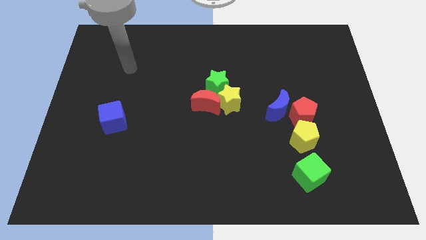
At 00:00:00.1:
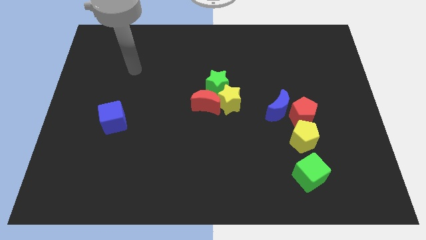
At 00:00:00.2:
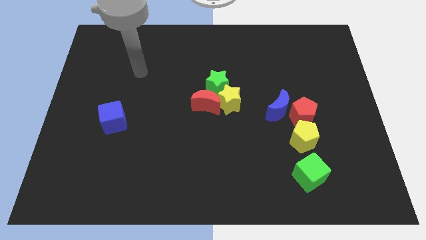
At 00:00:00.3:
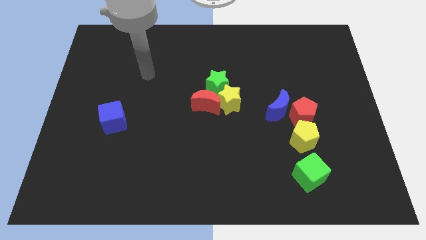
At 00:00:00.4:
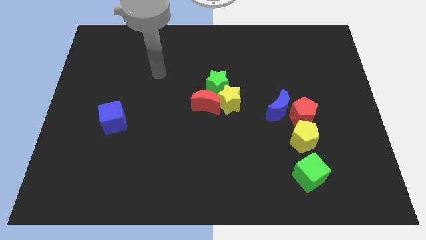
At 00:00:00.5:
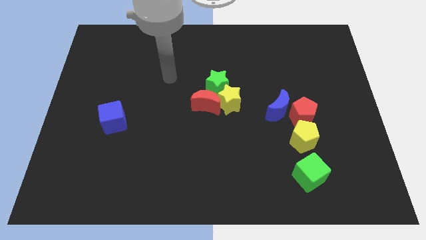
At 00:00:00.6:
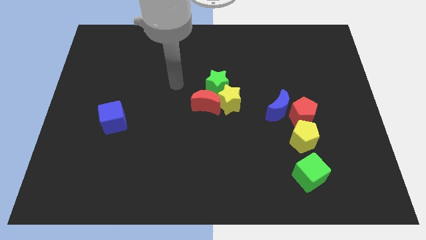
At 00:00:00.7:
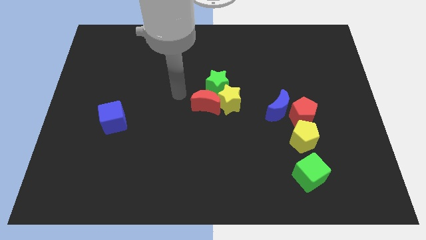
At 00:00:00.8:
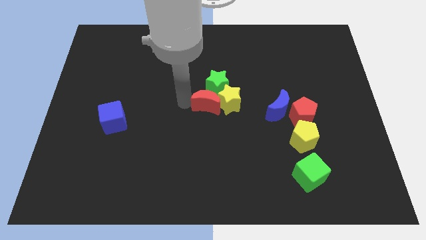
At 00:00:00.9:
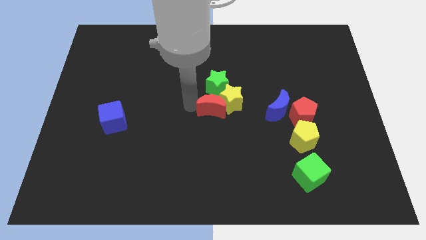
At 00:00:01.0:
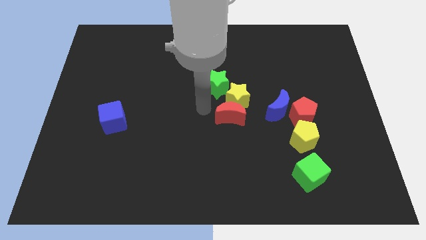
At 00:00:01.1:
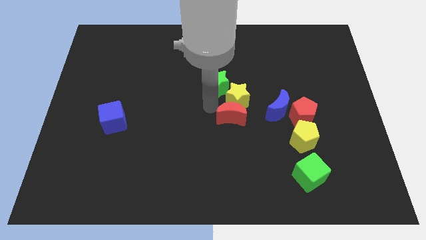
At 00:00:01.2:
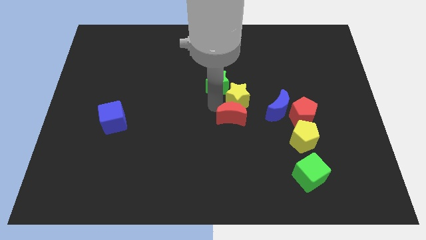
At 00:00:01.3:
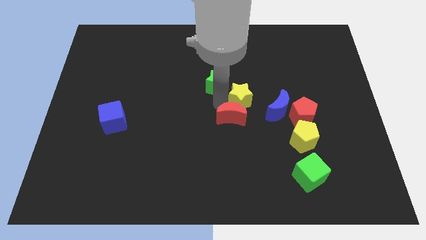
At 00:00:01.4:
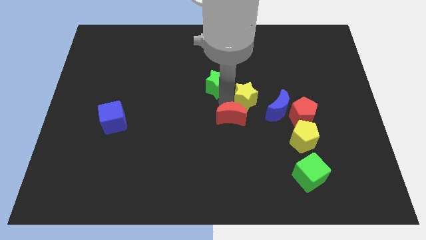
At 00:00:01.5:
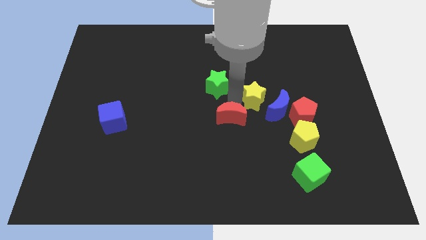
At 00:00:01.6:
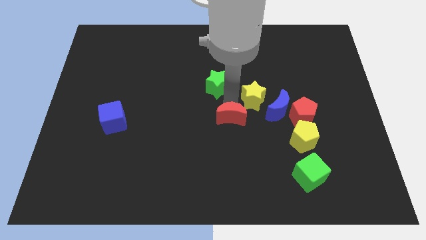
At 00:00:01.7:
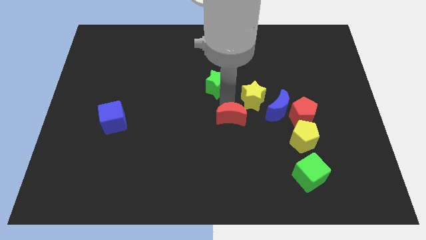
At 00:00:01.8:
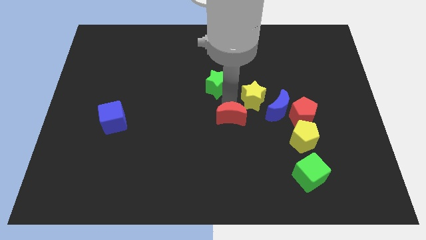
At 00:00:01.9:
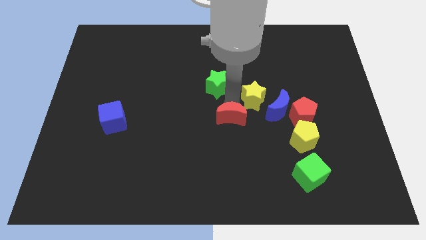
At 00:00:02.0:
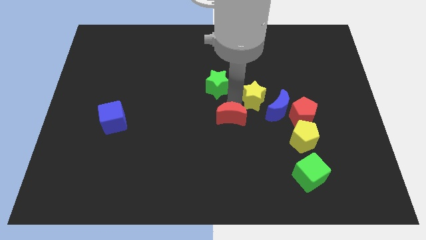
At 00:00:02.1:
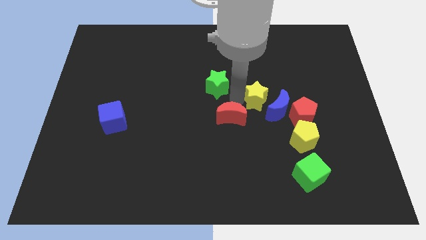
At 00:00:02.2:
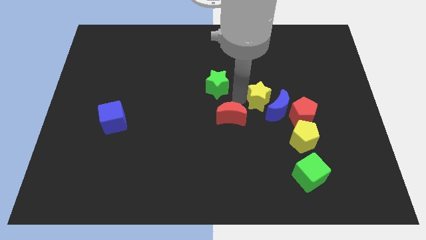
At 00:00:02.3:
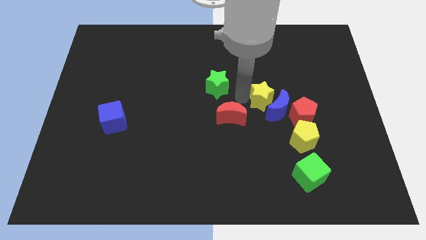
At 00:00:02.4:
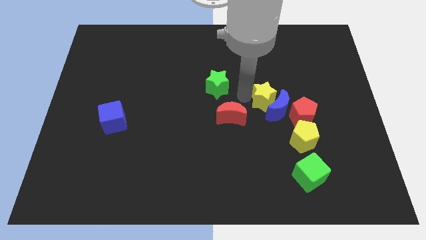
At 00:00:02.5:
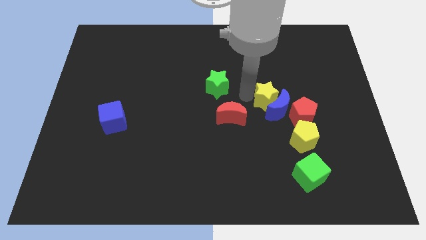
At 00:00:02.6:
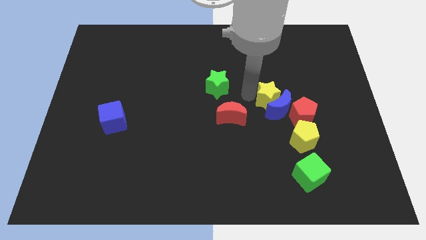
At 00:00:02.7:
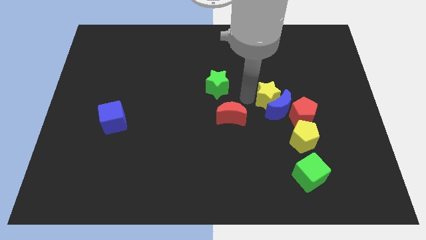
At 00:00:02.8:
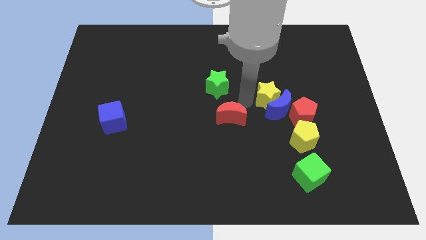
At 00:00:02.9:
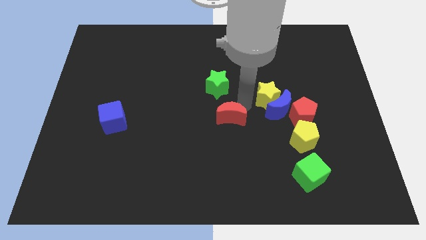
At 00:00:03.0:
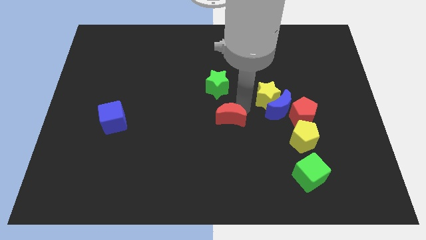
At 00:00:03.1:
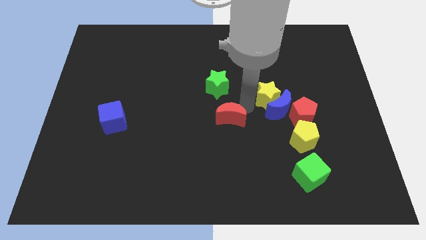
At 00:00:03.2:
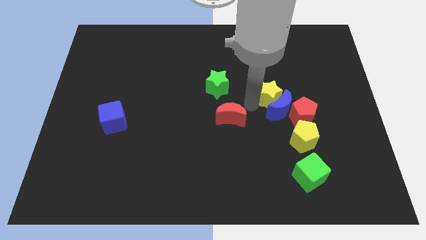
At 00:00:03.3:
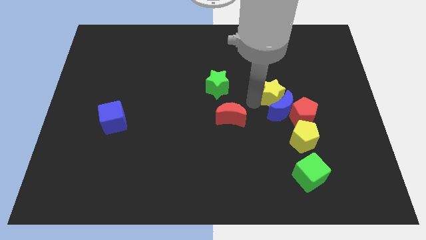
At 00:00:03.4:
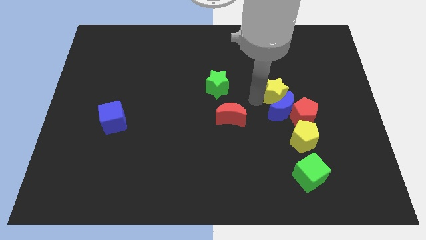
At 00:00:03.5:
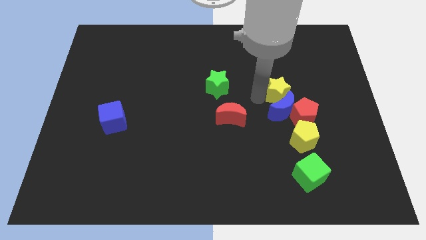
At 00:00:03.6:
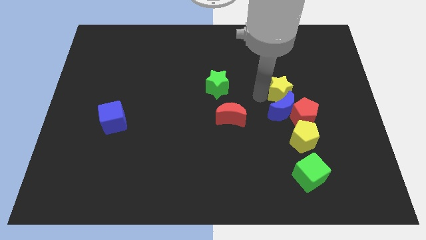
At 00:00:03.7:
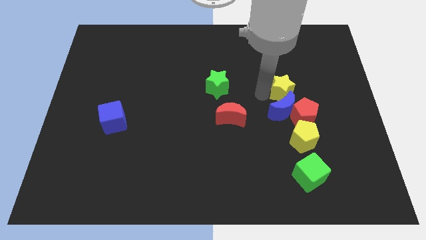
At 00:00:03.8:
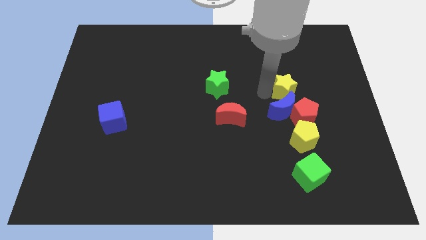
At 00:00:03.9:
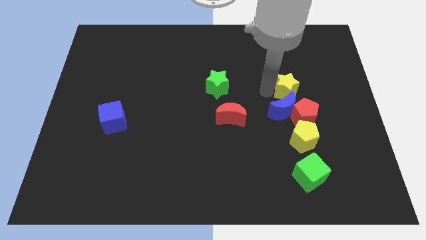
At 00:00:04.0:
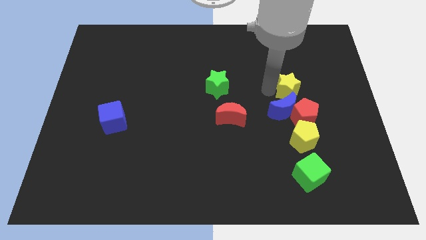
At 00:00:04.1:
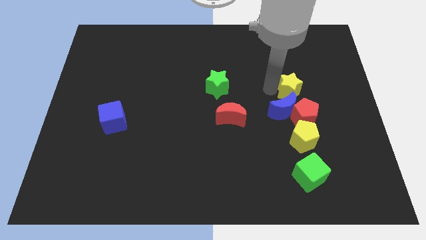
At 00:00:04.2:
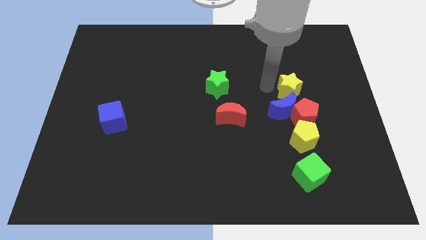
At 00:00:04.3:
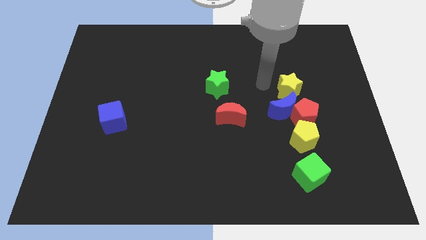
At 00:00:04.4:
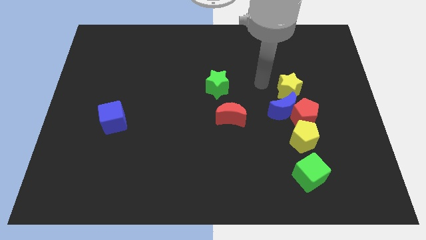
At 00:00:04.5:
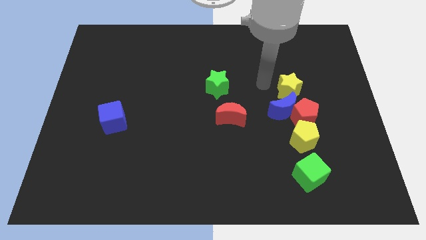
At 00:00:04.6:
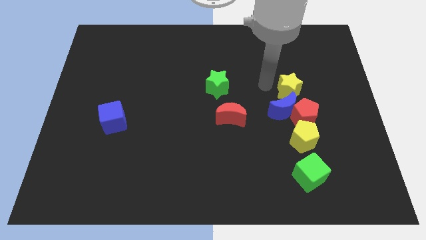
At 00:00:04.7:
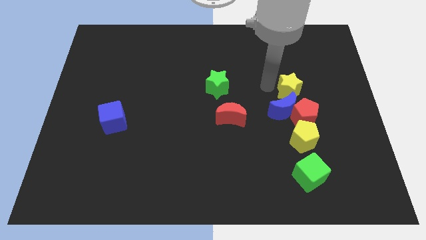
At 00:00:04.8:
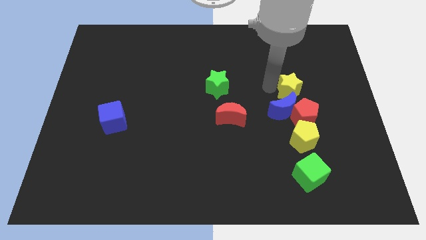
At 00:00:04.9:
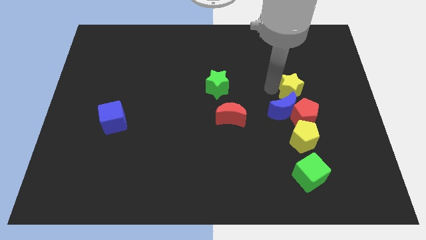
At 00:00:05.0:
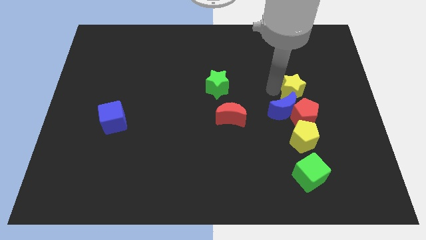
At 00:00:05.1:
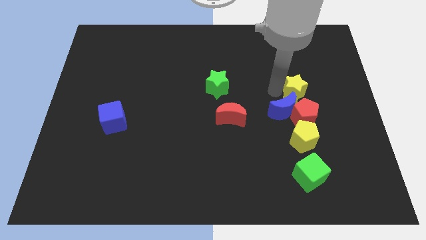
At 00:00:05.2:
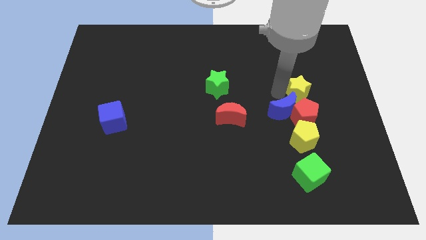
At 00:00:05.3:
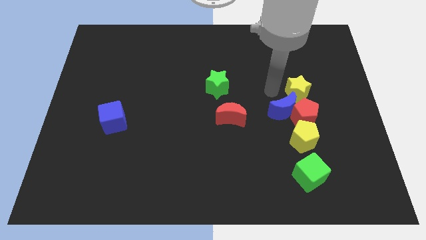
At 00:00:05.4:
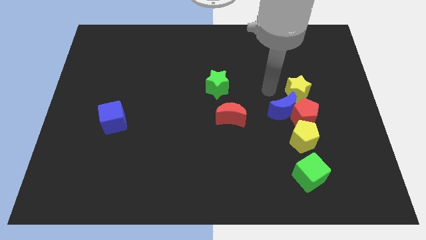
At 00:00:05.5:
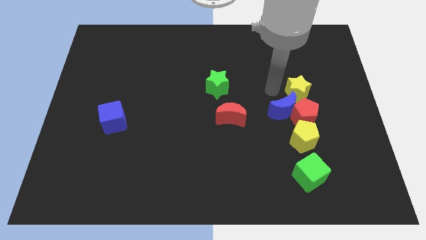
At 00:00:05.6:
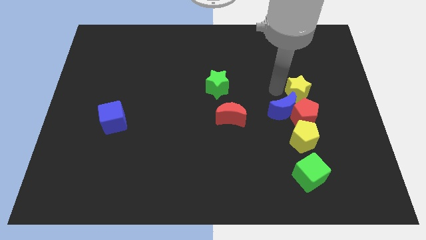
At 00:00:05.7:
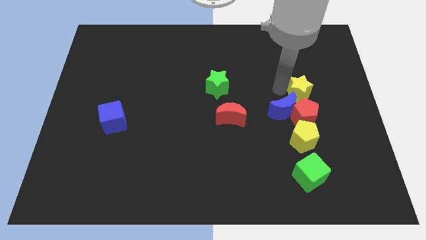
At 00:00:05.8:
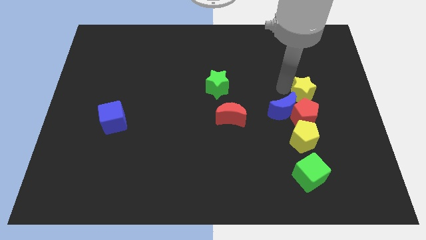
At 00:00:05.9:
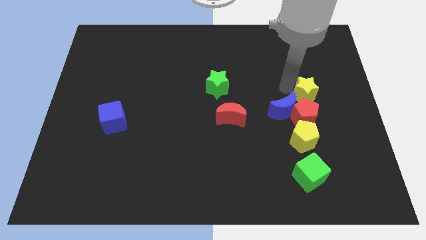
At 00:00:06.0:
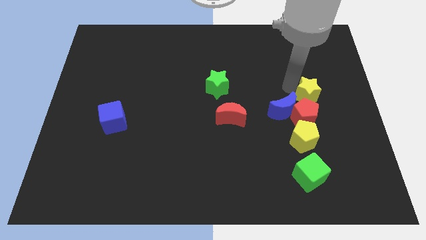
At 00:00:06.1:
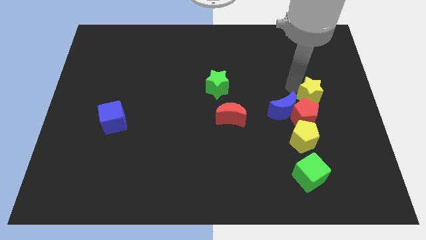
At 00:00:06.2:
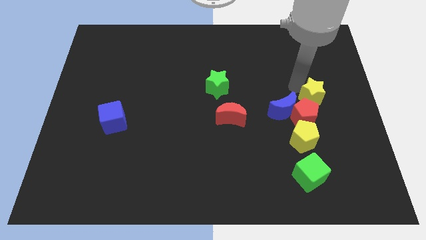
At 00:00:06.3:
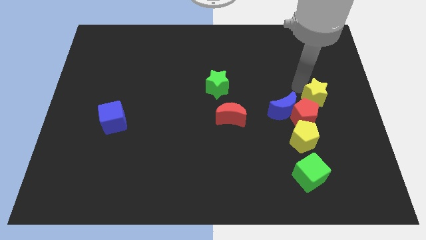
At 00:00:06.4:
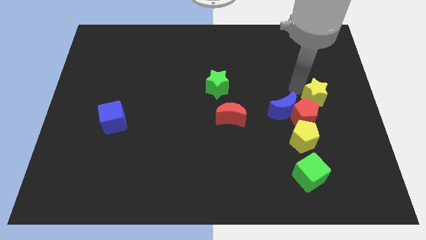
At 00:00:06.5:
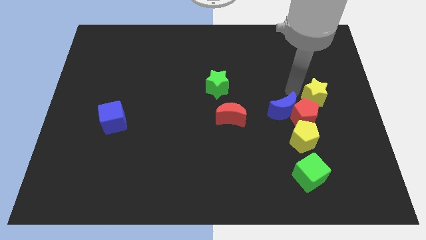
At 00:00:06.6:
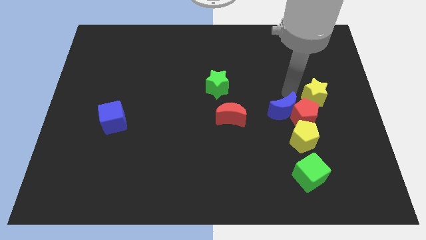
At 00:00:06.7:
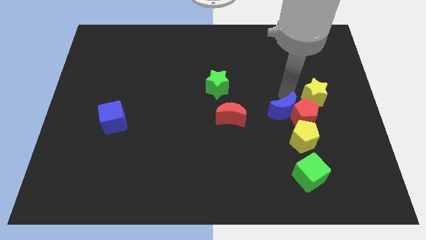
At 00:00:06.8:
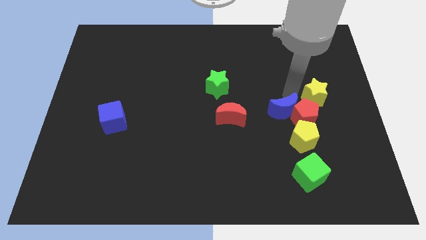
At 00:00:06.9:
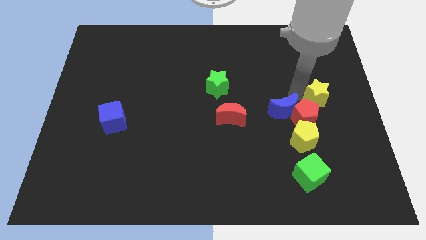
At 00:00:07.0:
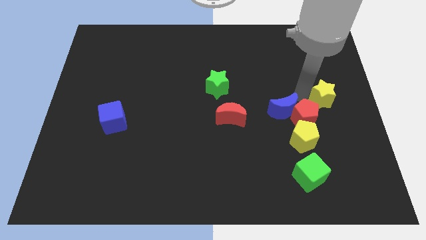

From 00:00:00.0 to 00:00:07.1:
slide the yellow star to the right side
